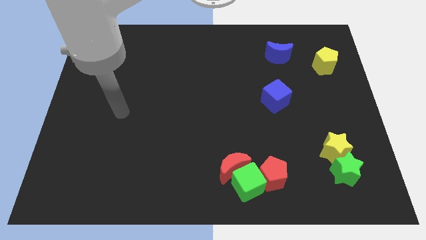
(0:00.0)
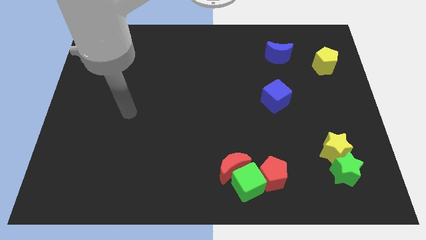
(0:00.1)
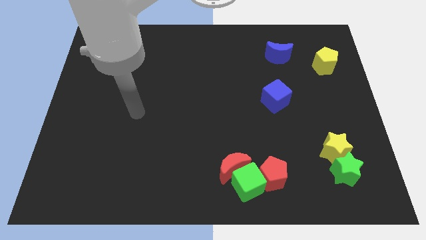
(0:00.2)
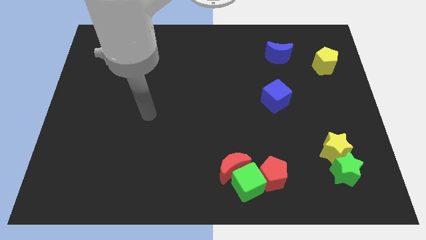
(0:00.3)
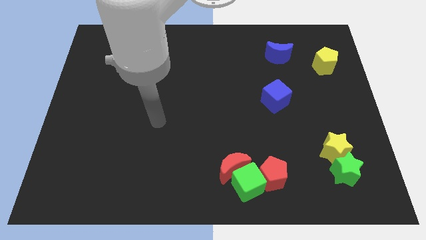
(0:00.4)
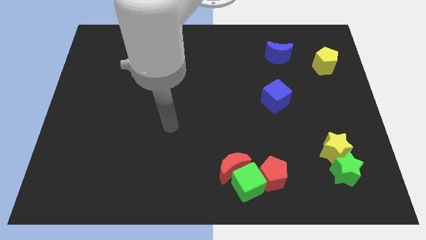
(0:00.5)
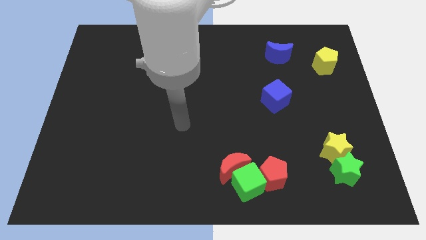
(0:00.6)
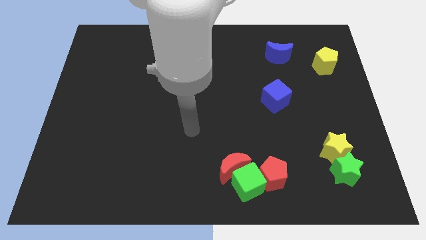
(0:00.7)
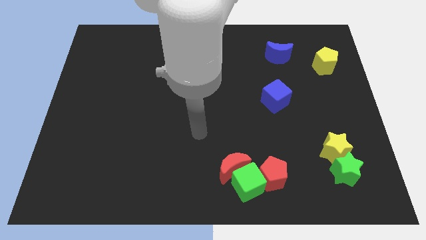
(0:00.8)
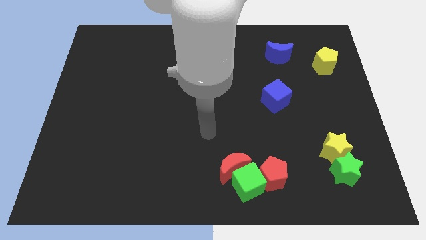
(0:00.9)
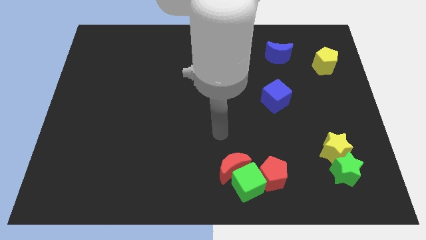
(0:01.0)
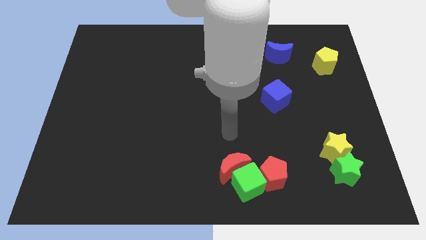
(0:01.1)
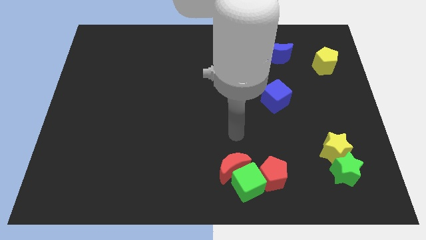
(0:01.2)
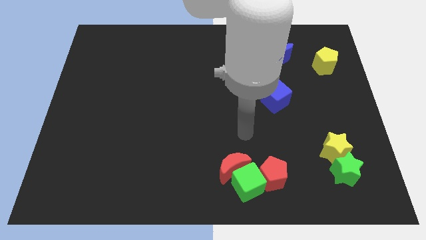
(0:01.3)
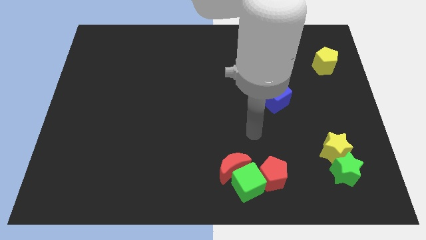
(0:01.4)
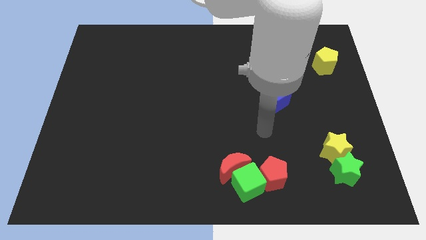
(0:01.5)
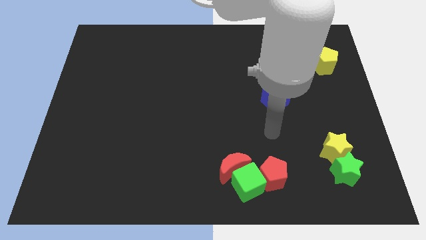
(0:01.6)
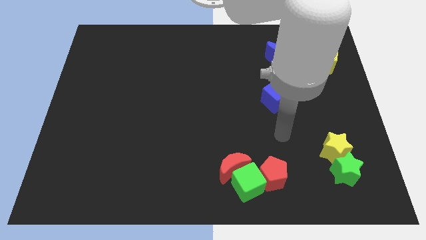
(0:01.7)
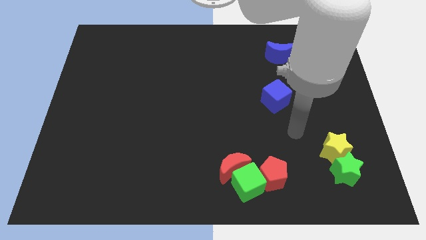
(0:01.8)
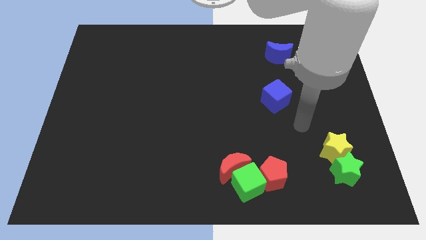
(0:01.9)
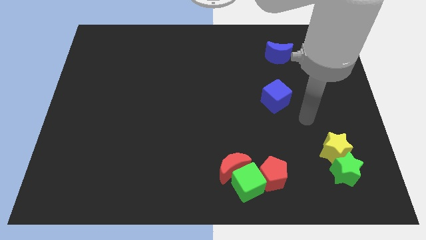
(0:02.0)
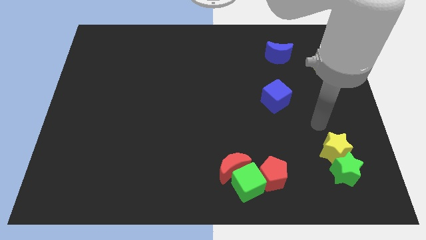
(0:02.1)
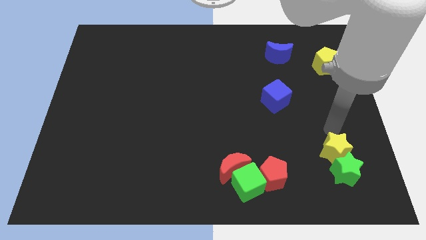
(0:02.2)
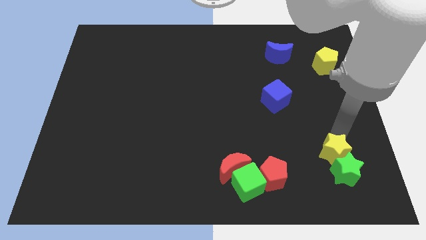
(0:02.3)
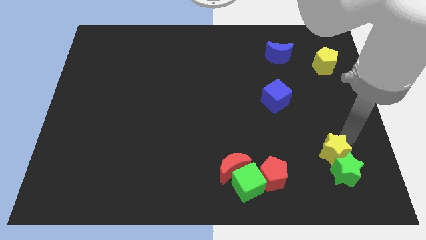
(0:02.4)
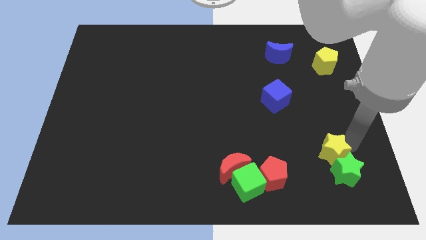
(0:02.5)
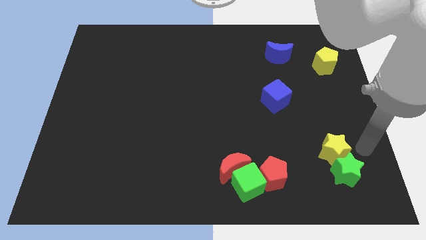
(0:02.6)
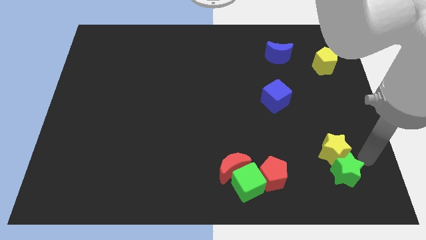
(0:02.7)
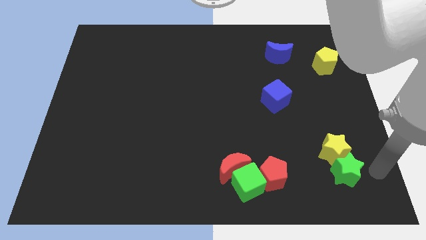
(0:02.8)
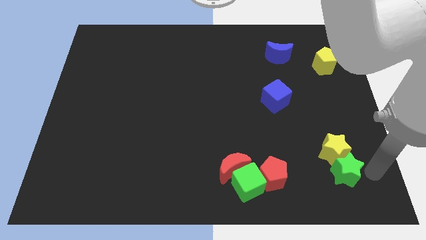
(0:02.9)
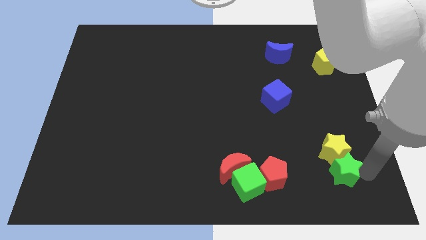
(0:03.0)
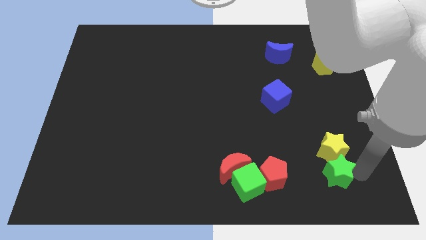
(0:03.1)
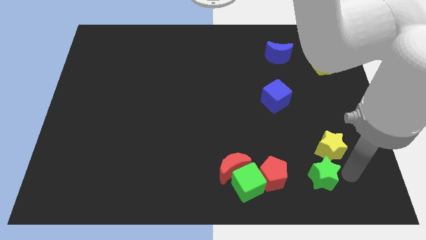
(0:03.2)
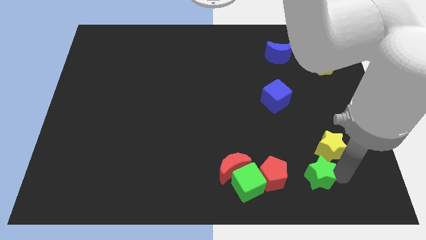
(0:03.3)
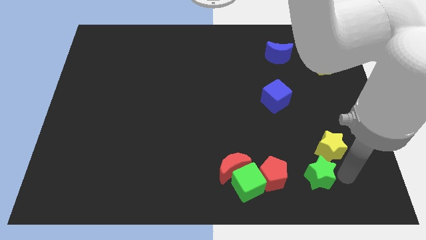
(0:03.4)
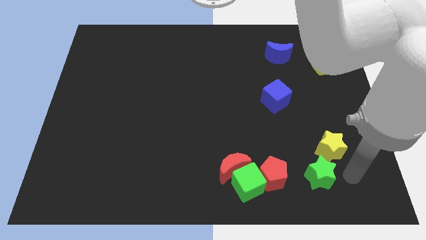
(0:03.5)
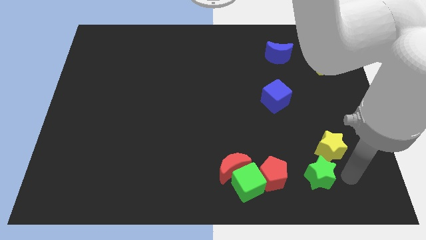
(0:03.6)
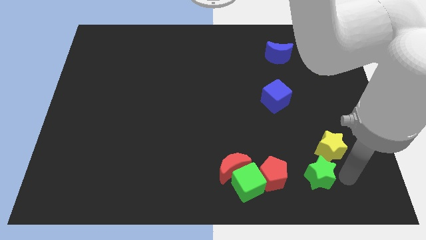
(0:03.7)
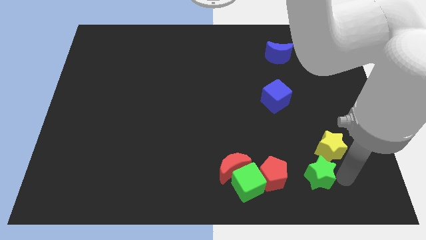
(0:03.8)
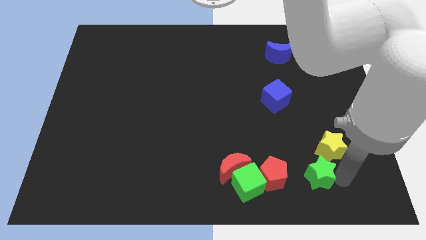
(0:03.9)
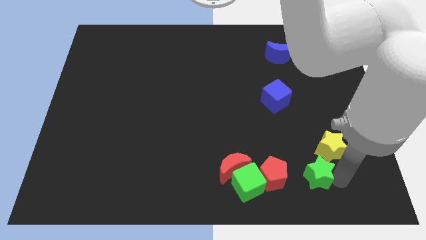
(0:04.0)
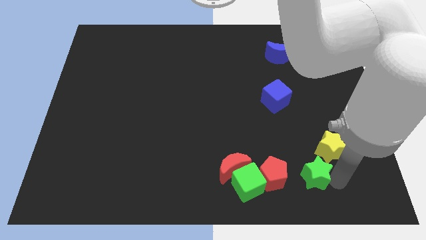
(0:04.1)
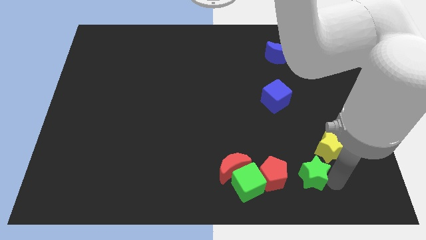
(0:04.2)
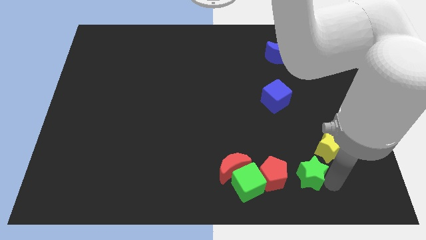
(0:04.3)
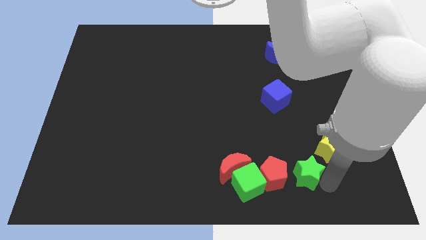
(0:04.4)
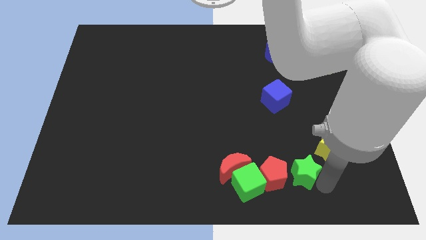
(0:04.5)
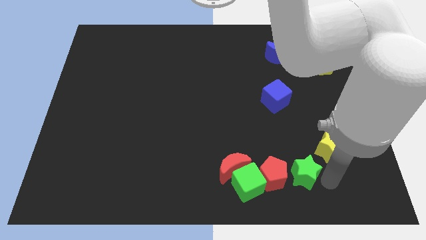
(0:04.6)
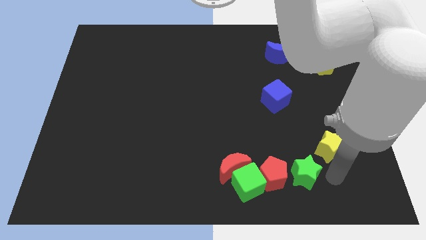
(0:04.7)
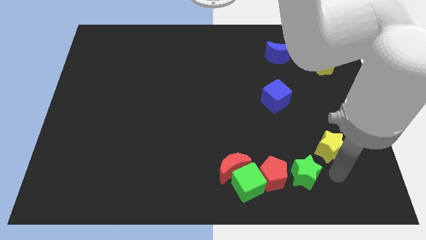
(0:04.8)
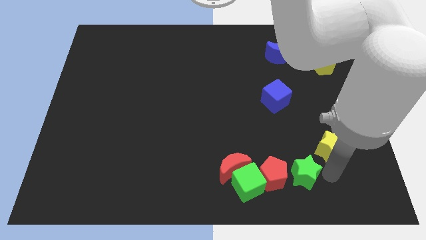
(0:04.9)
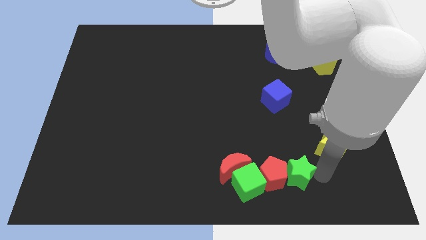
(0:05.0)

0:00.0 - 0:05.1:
put the green star close to the red pentagon

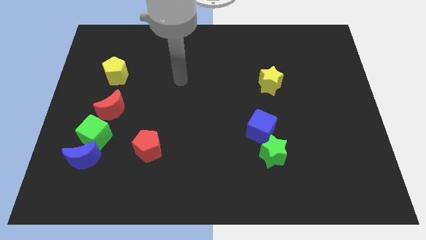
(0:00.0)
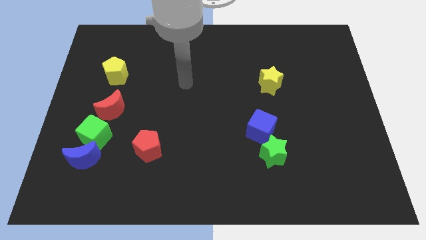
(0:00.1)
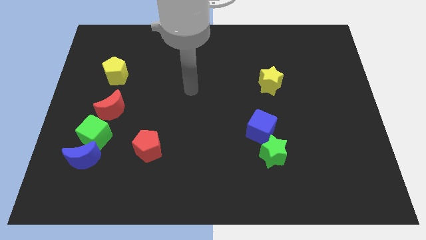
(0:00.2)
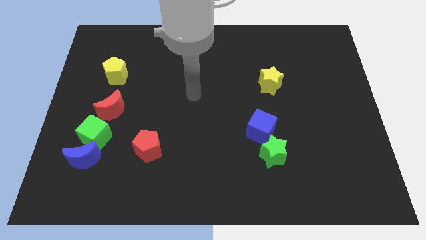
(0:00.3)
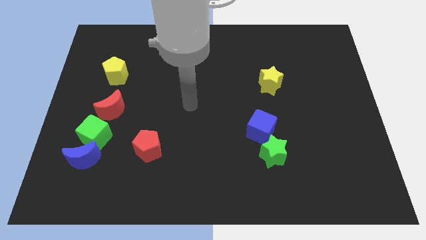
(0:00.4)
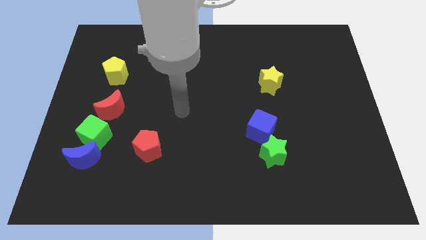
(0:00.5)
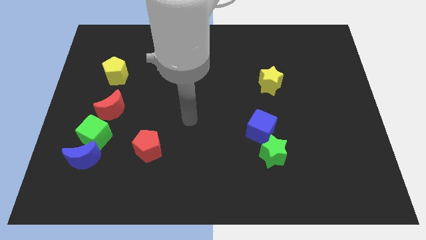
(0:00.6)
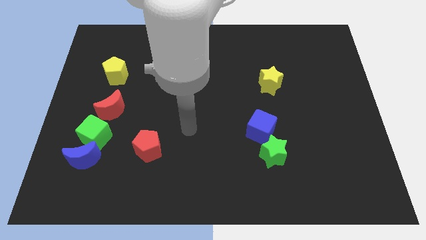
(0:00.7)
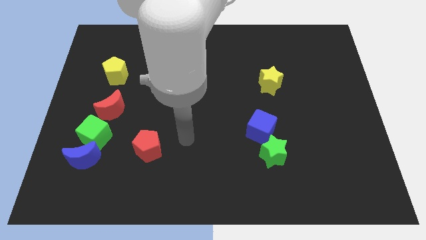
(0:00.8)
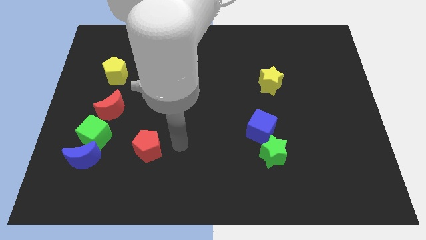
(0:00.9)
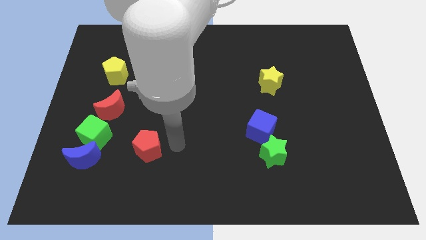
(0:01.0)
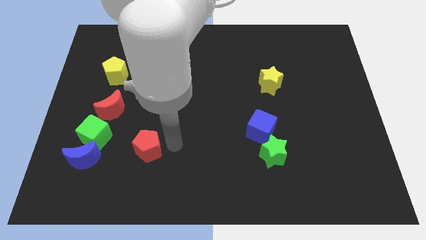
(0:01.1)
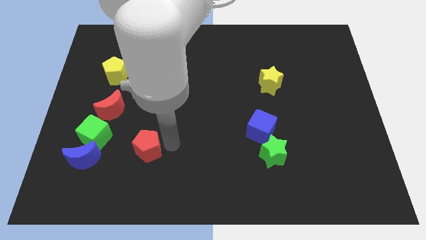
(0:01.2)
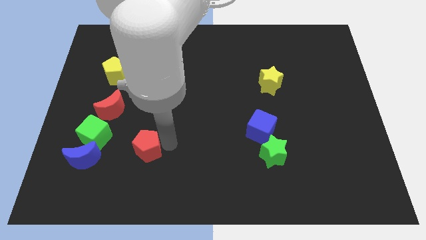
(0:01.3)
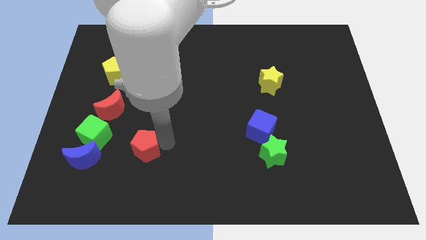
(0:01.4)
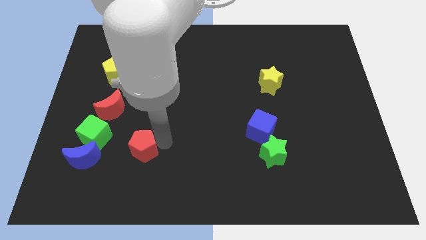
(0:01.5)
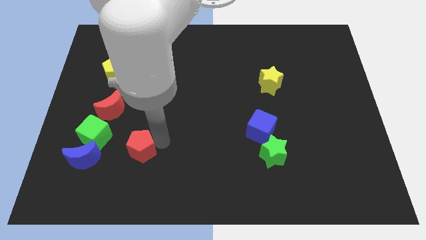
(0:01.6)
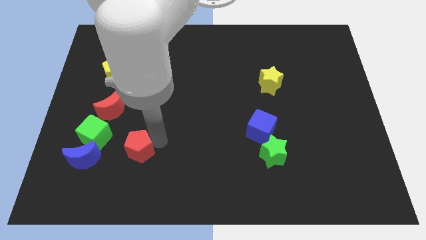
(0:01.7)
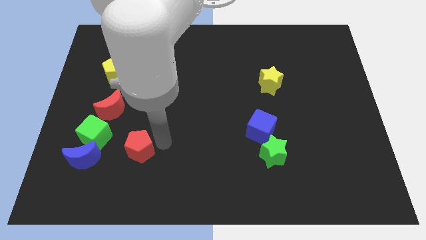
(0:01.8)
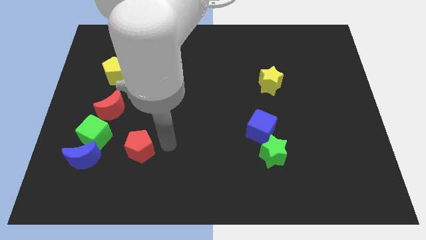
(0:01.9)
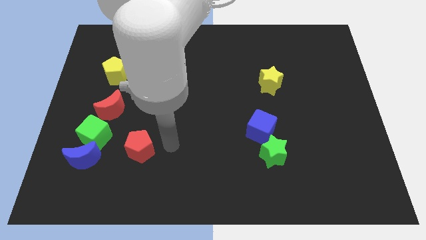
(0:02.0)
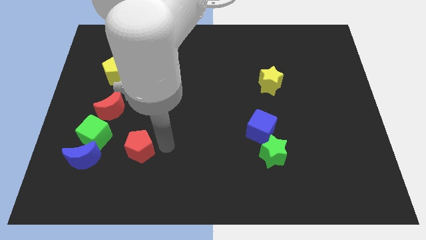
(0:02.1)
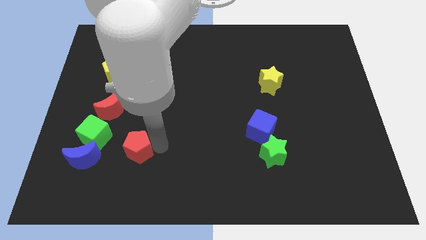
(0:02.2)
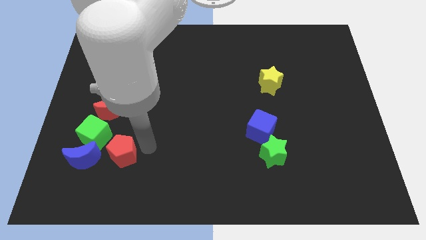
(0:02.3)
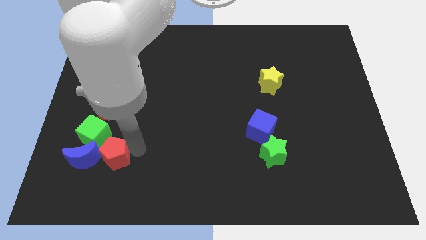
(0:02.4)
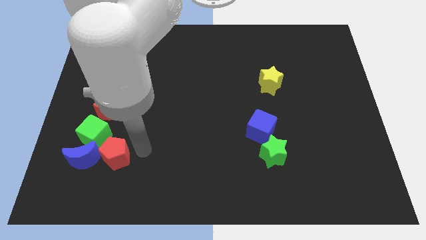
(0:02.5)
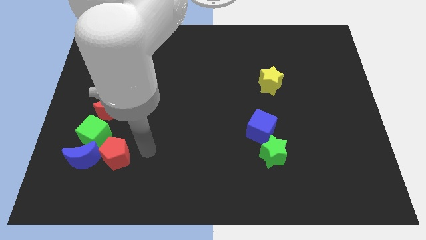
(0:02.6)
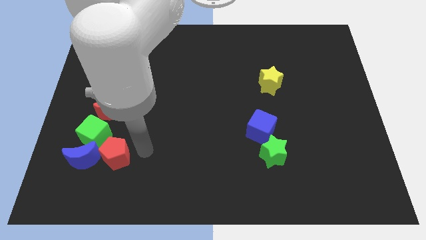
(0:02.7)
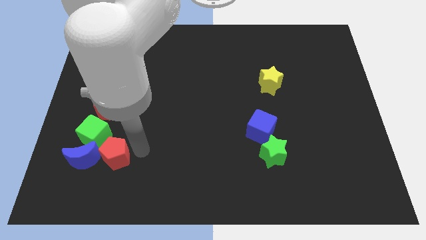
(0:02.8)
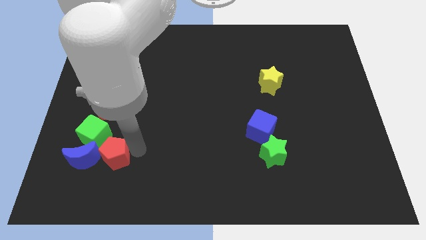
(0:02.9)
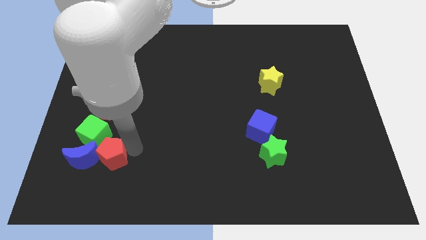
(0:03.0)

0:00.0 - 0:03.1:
move the red pentagon towards the blue moon
